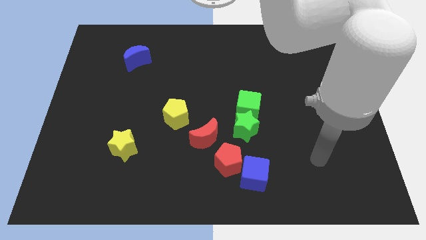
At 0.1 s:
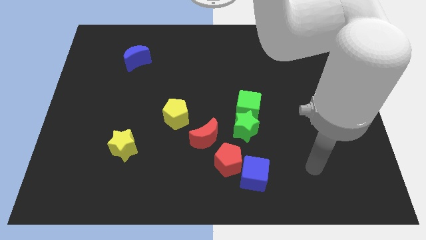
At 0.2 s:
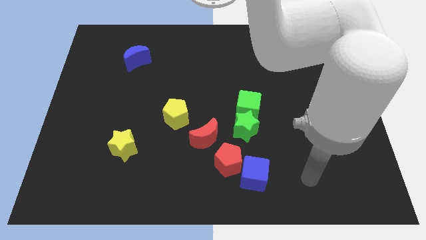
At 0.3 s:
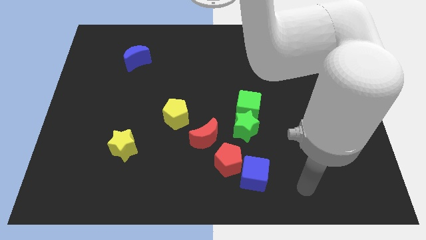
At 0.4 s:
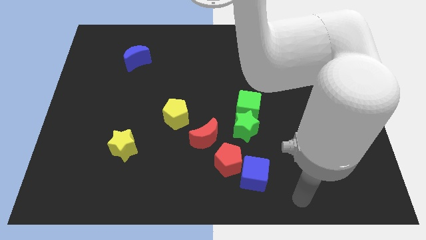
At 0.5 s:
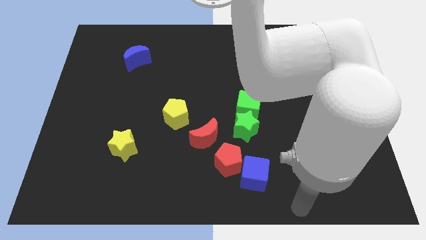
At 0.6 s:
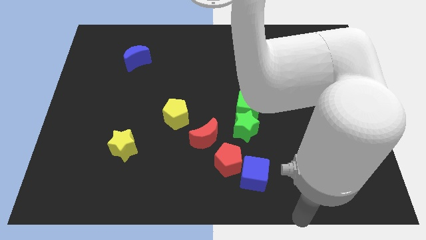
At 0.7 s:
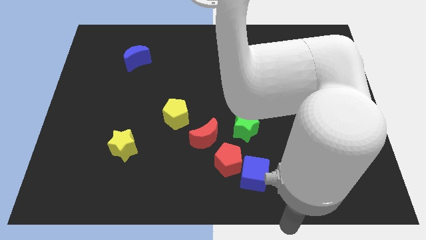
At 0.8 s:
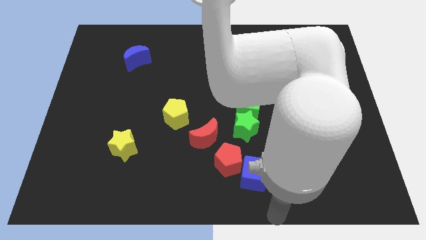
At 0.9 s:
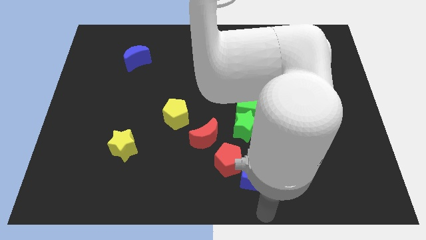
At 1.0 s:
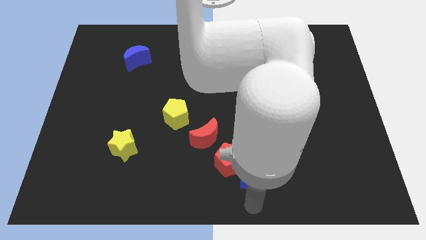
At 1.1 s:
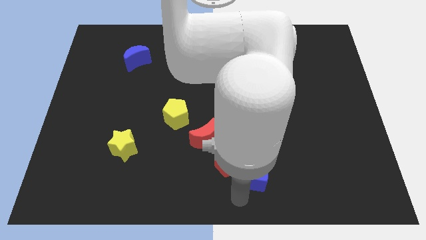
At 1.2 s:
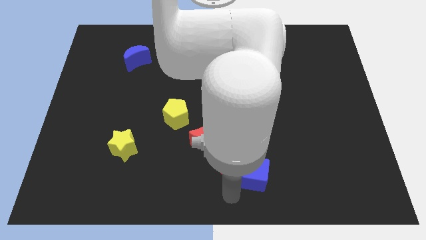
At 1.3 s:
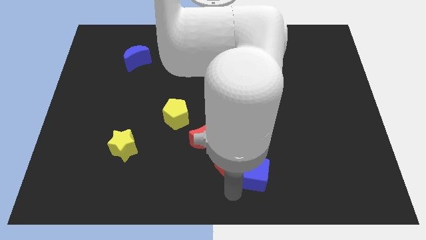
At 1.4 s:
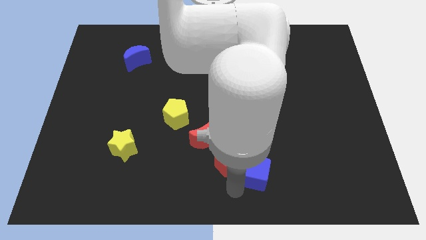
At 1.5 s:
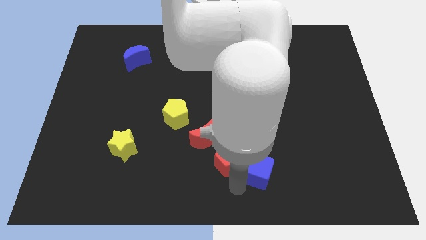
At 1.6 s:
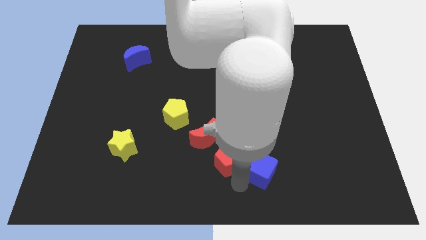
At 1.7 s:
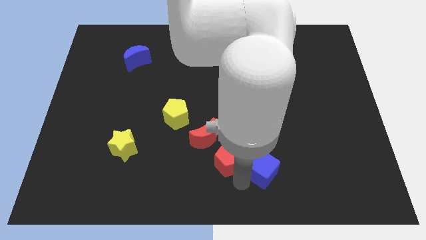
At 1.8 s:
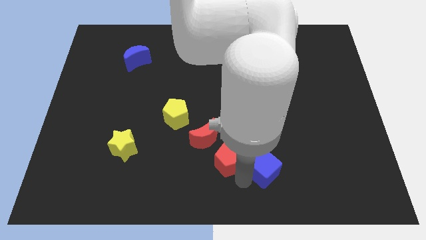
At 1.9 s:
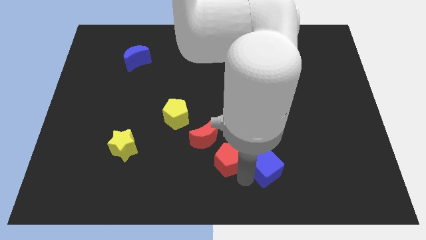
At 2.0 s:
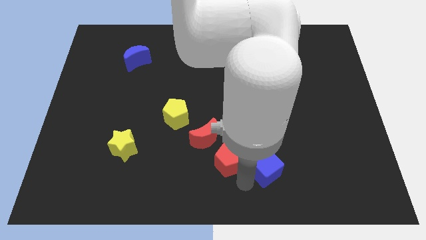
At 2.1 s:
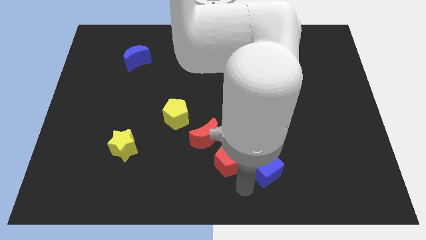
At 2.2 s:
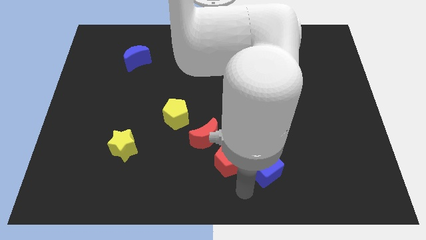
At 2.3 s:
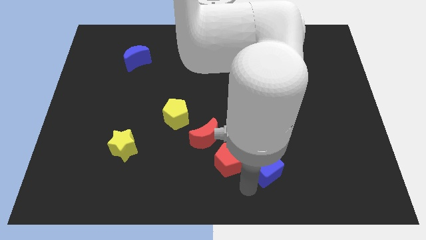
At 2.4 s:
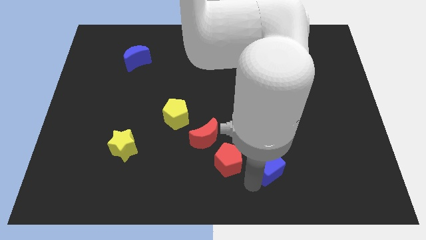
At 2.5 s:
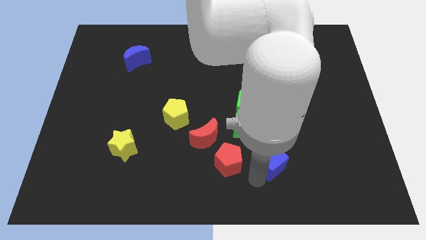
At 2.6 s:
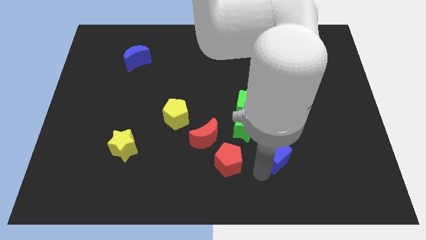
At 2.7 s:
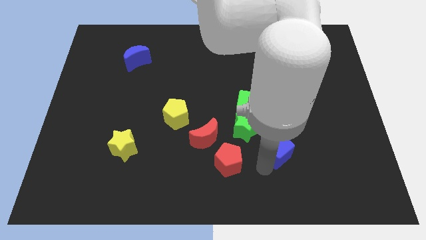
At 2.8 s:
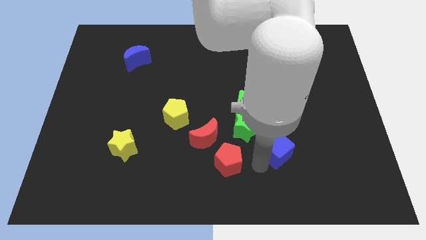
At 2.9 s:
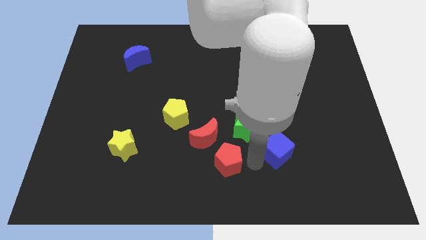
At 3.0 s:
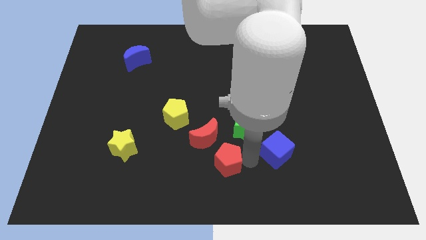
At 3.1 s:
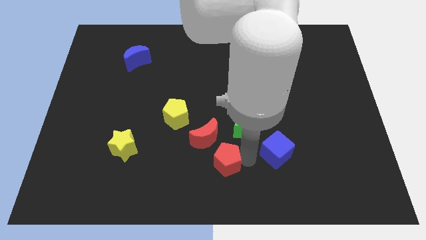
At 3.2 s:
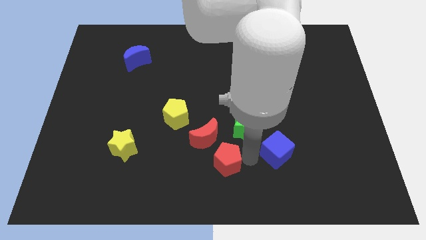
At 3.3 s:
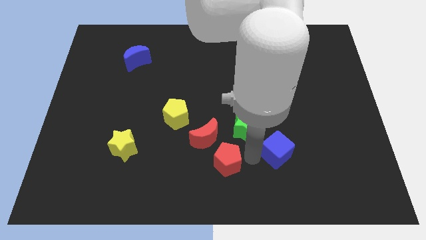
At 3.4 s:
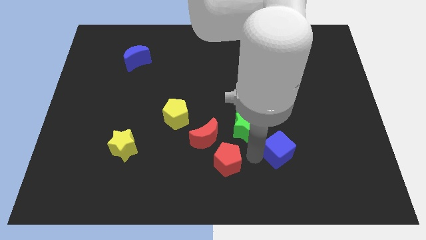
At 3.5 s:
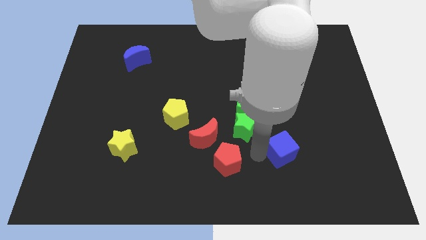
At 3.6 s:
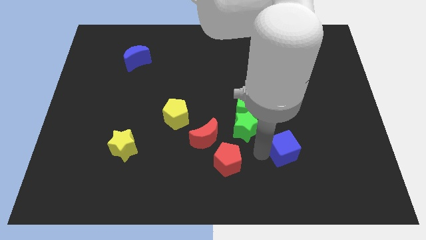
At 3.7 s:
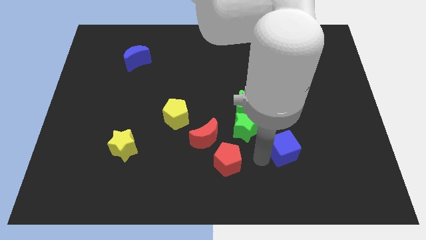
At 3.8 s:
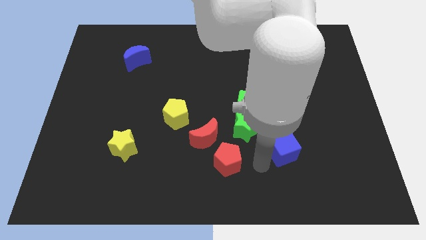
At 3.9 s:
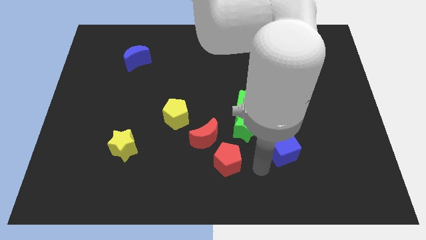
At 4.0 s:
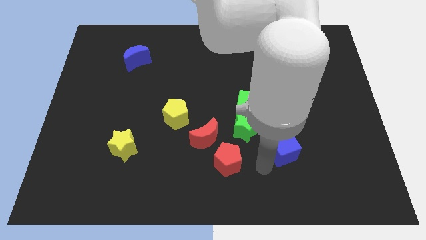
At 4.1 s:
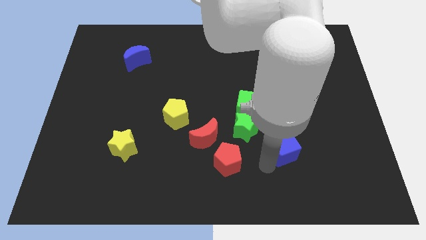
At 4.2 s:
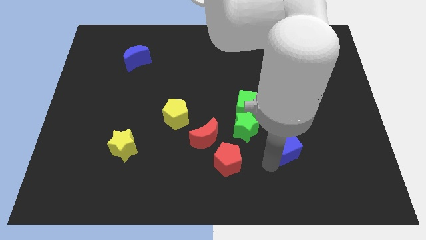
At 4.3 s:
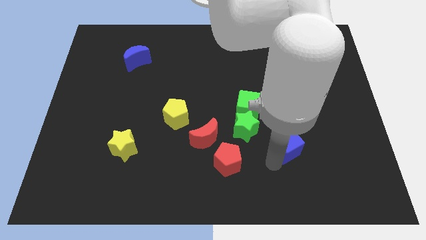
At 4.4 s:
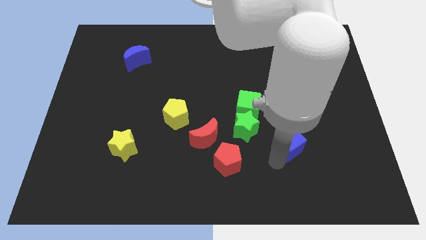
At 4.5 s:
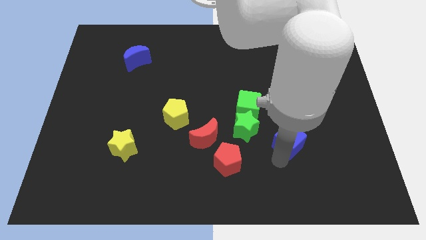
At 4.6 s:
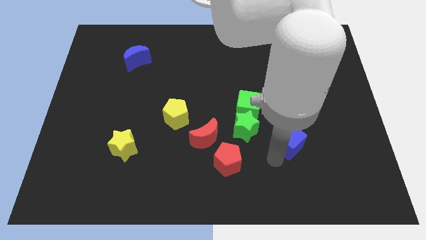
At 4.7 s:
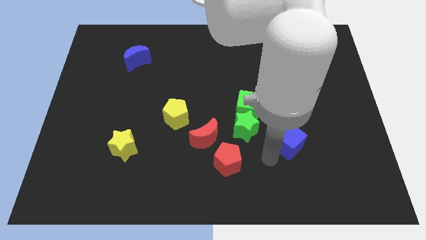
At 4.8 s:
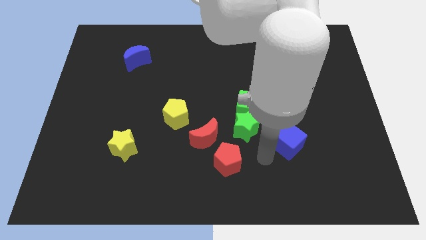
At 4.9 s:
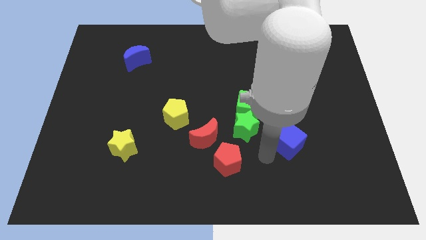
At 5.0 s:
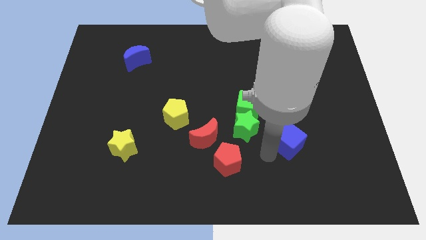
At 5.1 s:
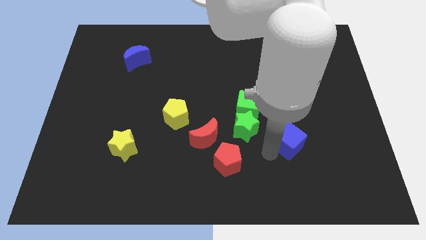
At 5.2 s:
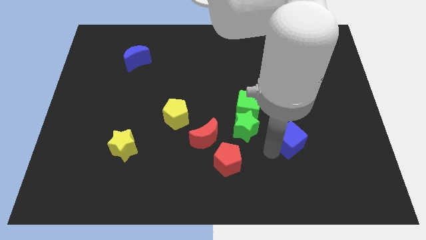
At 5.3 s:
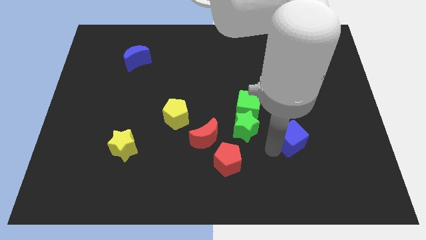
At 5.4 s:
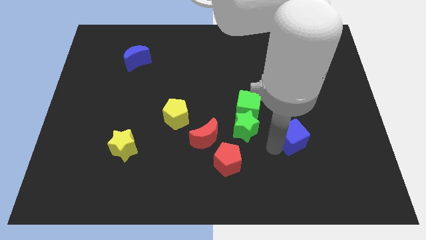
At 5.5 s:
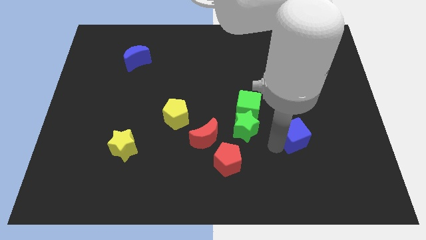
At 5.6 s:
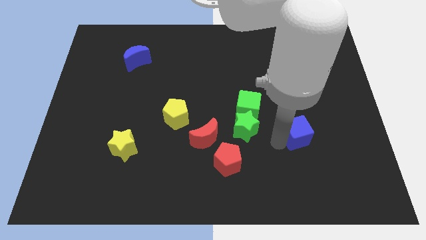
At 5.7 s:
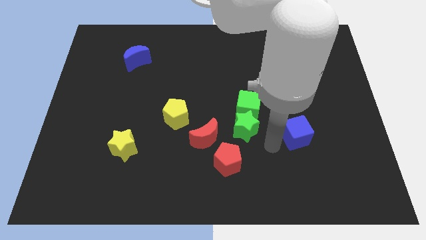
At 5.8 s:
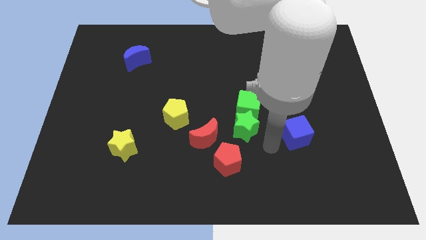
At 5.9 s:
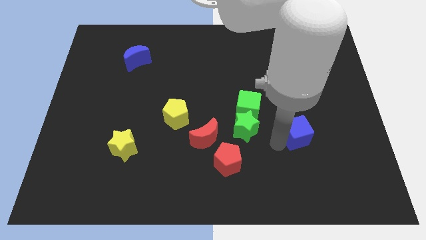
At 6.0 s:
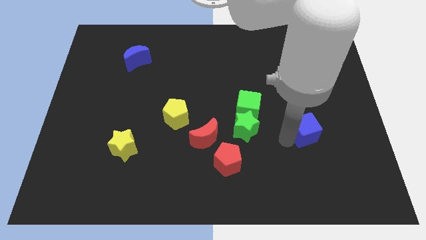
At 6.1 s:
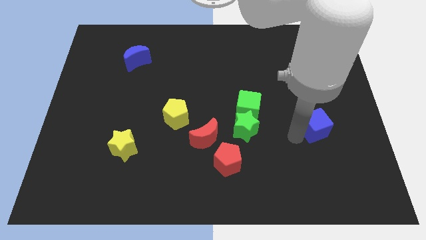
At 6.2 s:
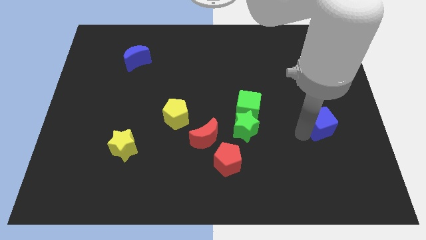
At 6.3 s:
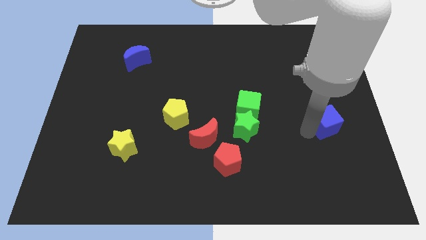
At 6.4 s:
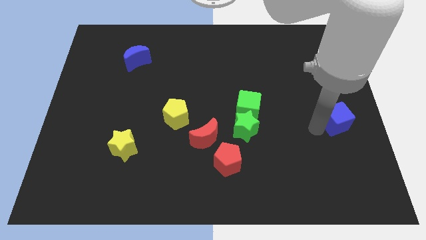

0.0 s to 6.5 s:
slide the blue cube to the right side of the board
